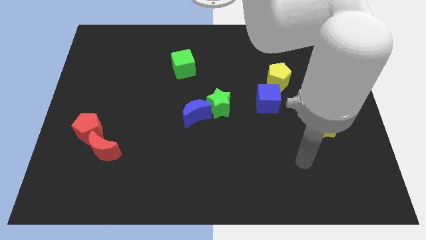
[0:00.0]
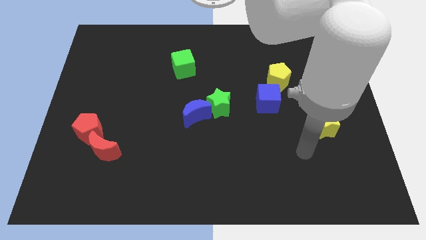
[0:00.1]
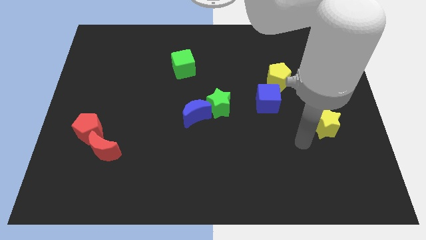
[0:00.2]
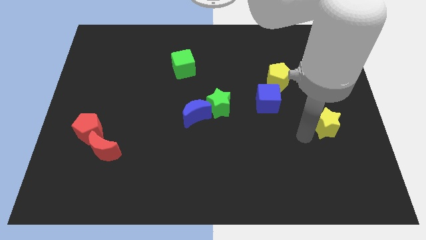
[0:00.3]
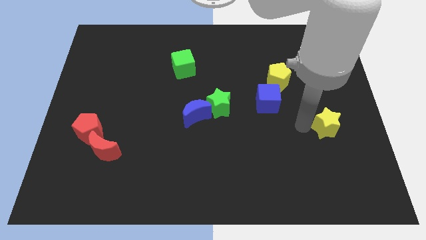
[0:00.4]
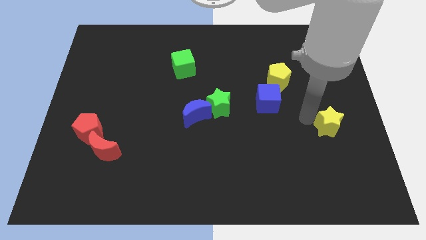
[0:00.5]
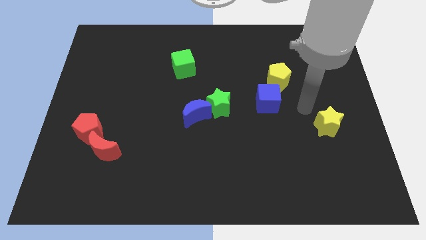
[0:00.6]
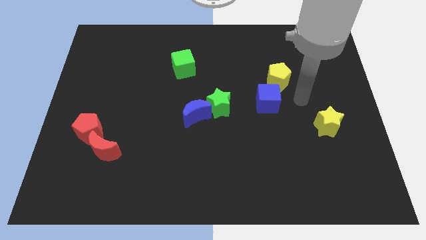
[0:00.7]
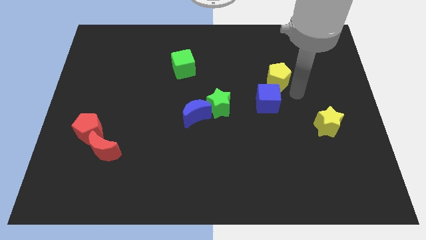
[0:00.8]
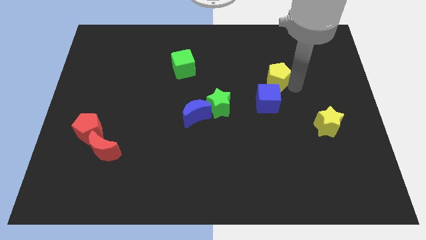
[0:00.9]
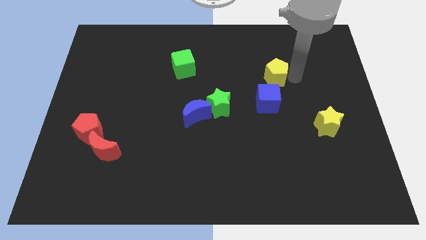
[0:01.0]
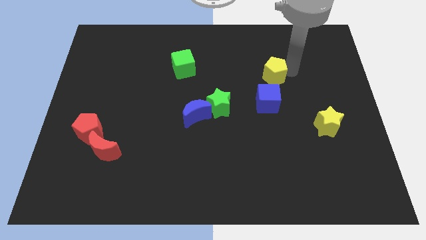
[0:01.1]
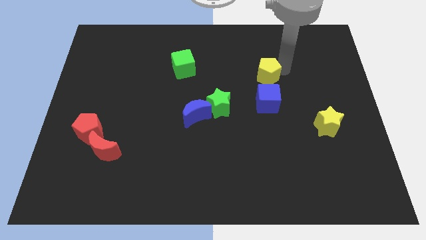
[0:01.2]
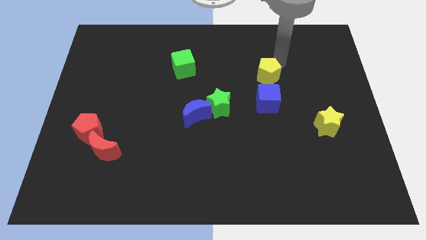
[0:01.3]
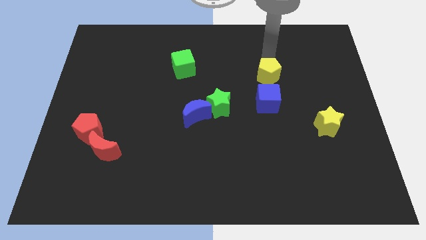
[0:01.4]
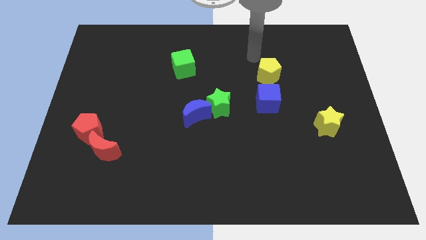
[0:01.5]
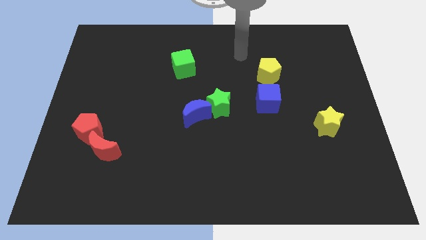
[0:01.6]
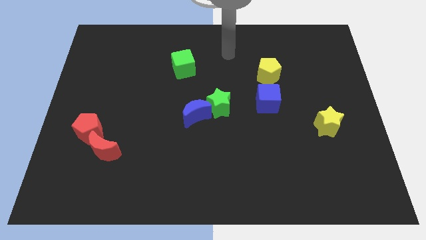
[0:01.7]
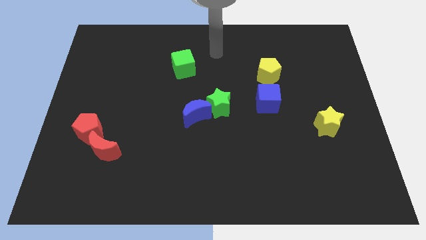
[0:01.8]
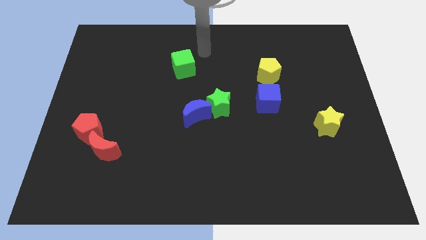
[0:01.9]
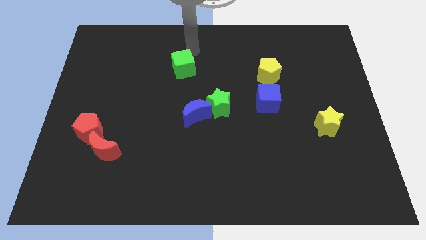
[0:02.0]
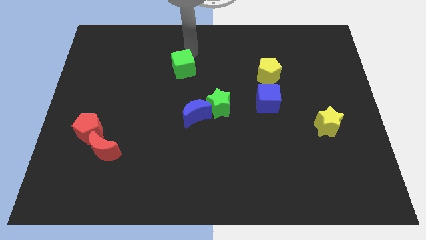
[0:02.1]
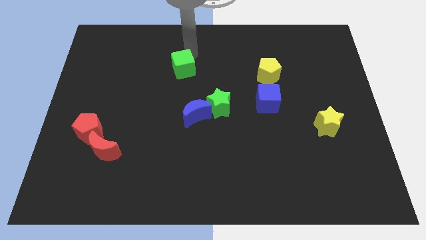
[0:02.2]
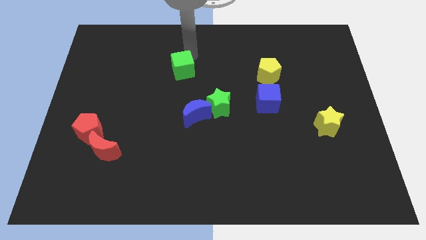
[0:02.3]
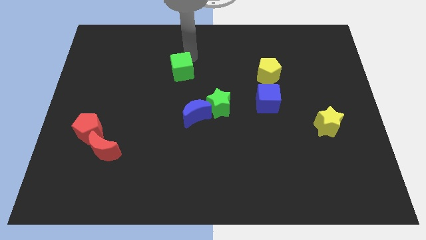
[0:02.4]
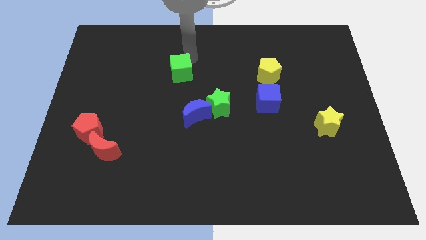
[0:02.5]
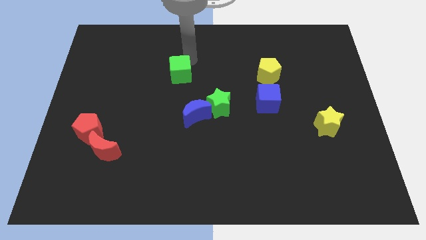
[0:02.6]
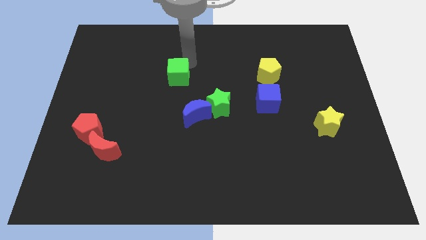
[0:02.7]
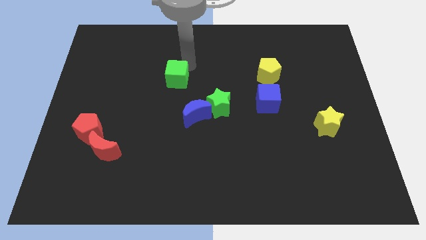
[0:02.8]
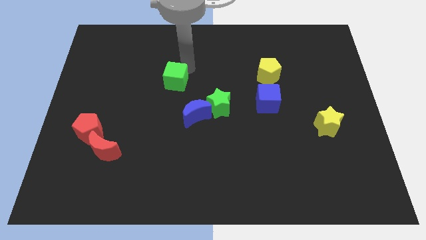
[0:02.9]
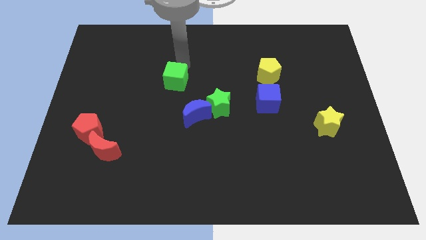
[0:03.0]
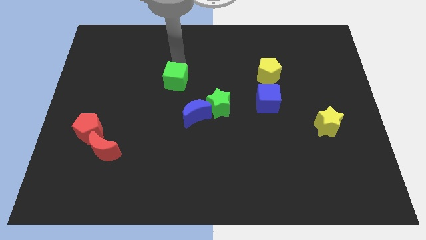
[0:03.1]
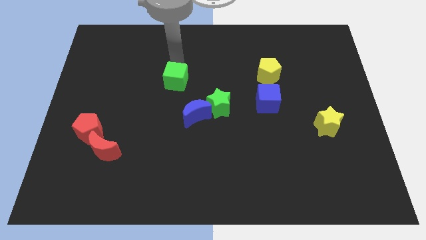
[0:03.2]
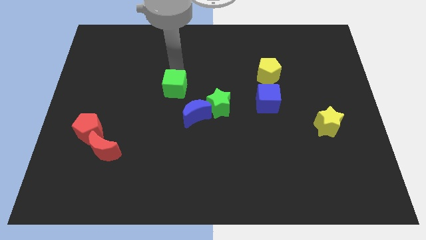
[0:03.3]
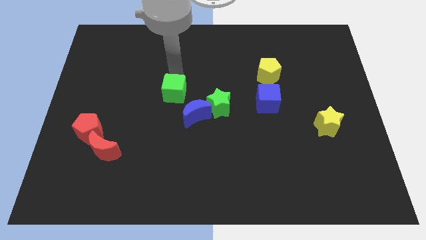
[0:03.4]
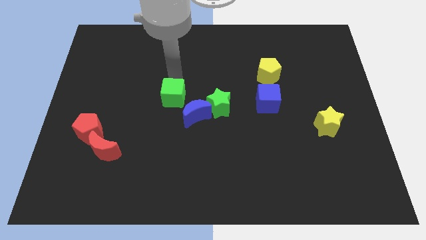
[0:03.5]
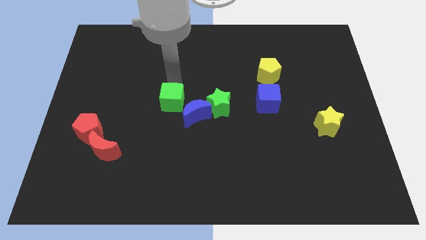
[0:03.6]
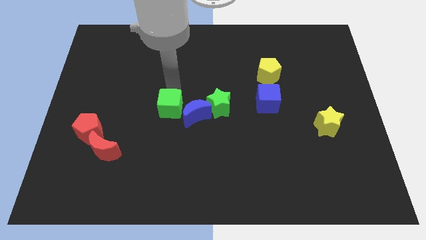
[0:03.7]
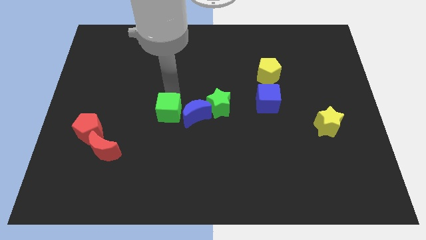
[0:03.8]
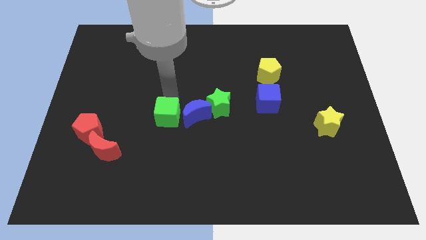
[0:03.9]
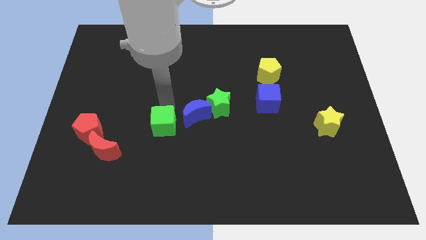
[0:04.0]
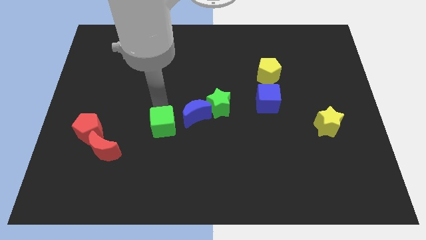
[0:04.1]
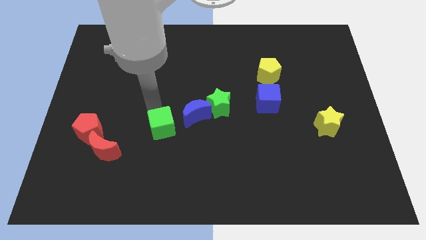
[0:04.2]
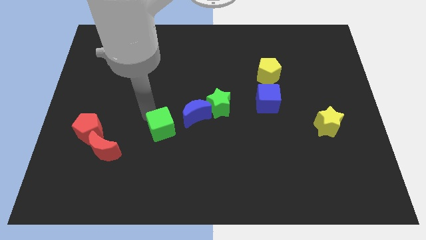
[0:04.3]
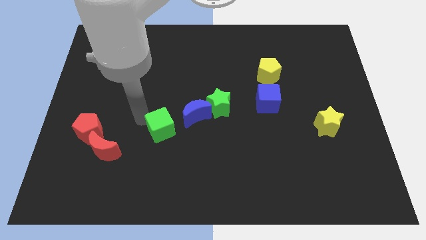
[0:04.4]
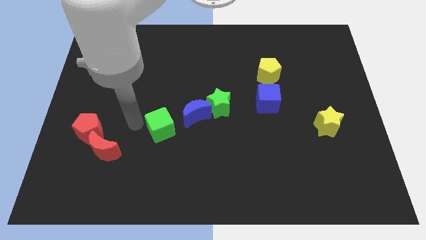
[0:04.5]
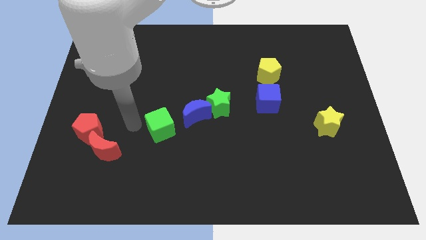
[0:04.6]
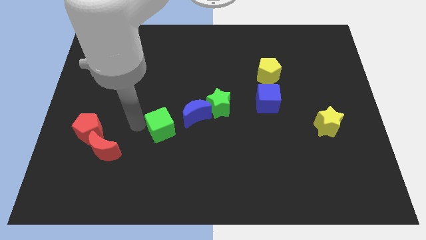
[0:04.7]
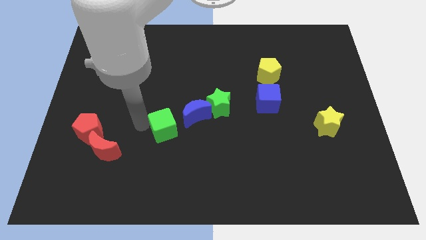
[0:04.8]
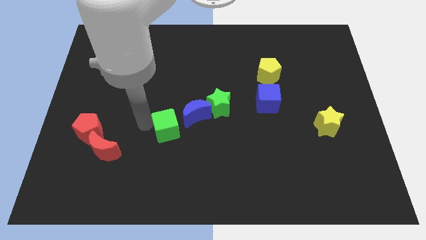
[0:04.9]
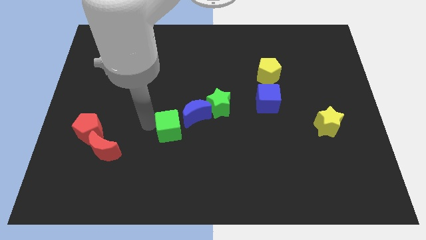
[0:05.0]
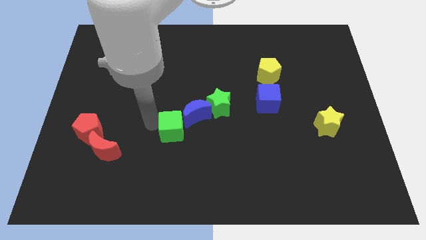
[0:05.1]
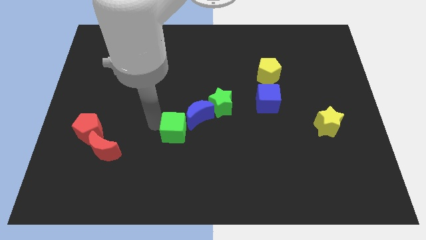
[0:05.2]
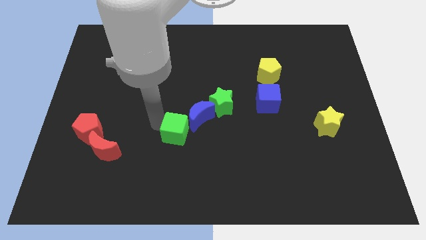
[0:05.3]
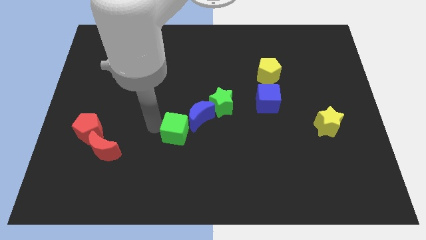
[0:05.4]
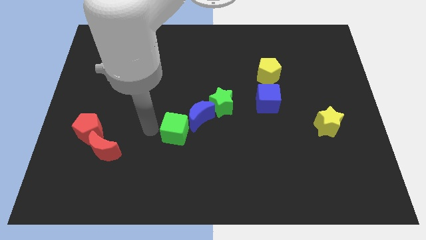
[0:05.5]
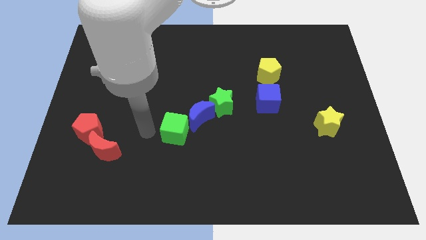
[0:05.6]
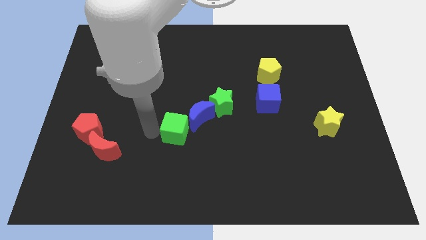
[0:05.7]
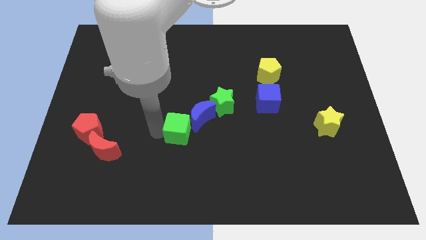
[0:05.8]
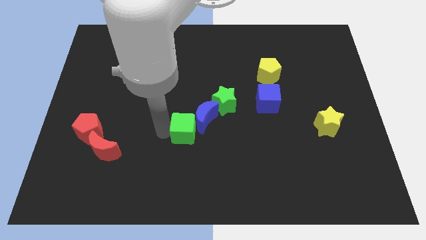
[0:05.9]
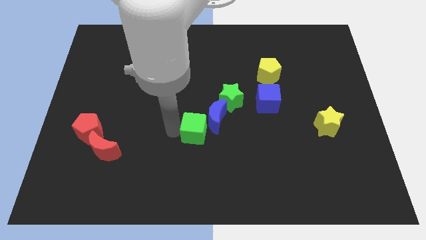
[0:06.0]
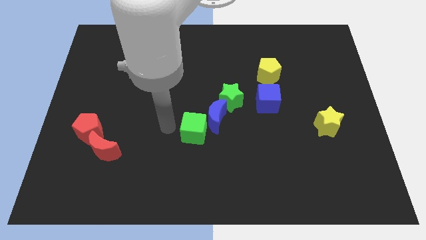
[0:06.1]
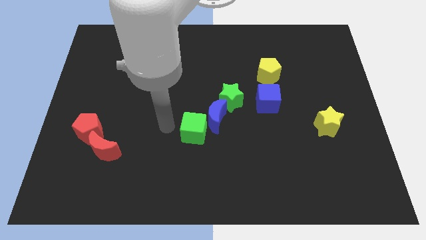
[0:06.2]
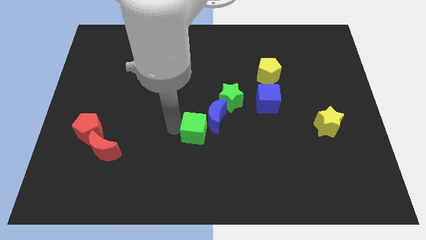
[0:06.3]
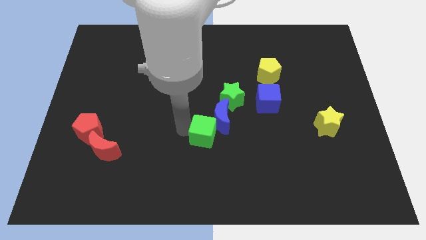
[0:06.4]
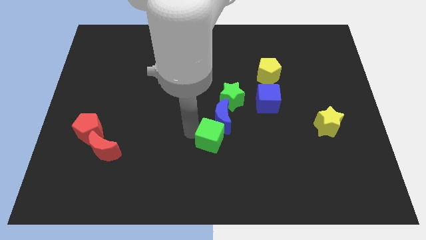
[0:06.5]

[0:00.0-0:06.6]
move the green cube to the bottom side of the green star

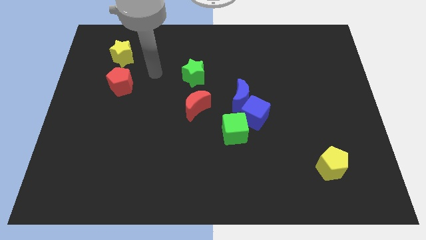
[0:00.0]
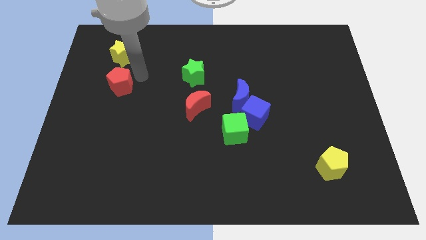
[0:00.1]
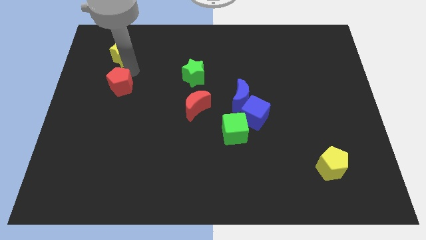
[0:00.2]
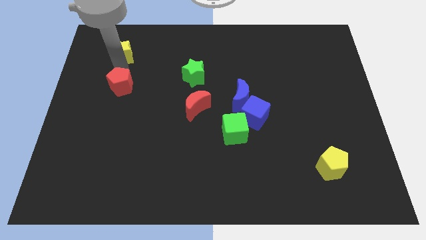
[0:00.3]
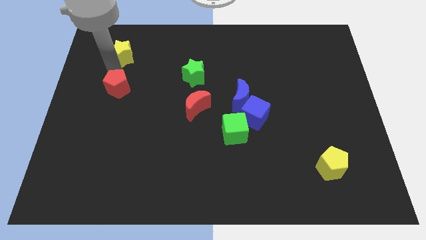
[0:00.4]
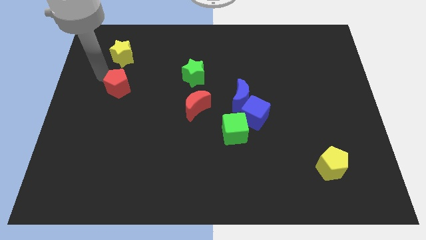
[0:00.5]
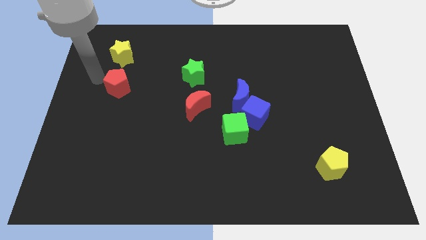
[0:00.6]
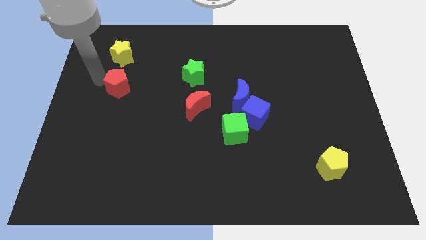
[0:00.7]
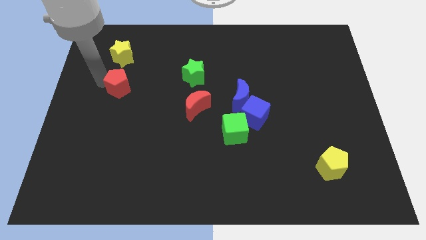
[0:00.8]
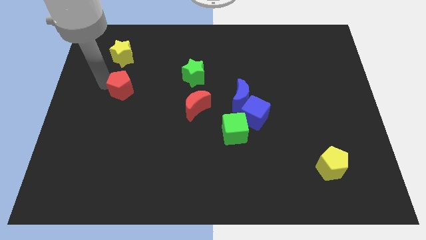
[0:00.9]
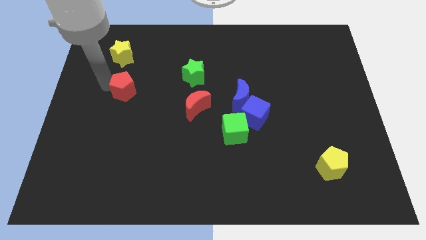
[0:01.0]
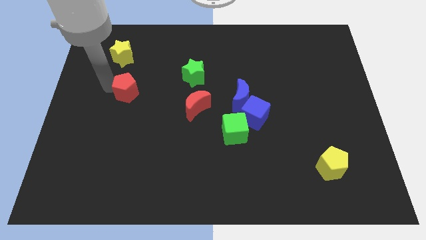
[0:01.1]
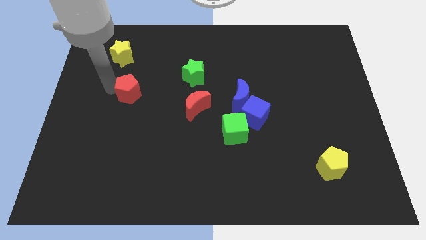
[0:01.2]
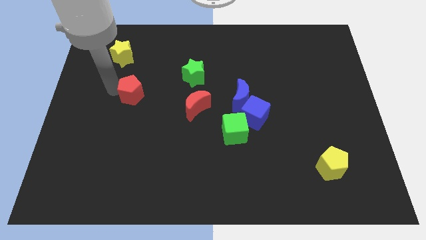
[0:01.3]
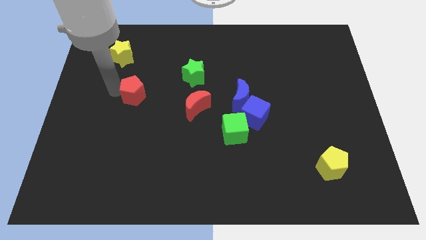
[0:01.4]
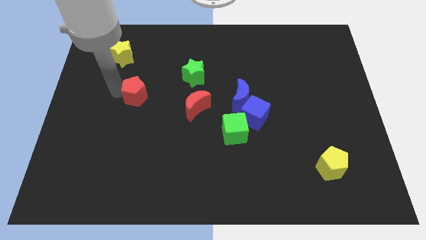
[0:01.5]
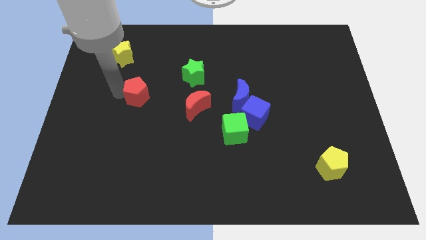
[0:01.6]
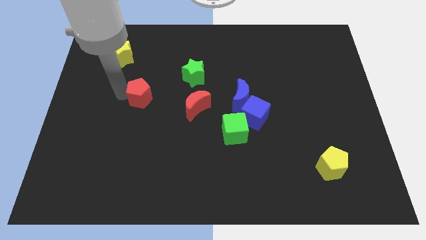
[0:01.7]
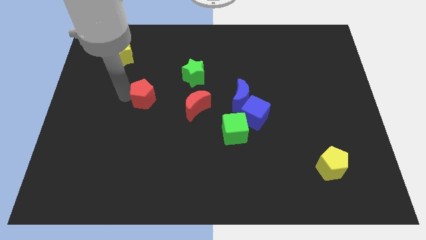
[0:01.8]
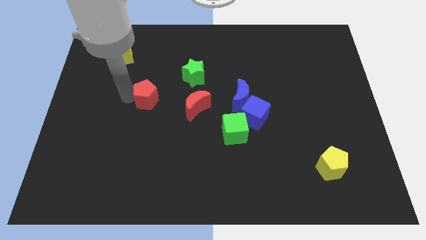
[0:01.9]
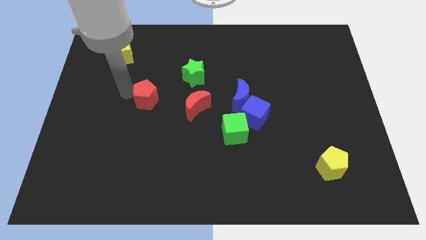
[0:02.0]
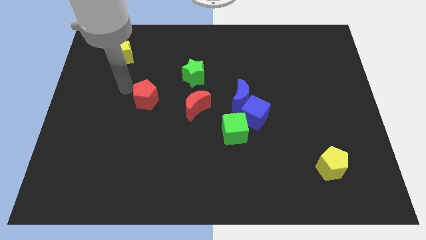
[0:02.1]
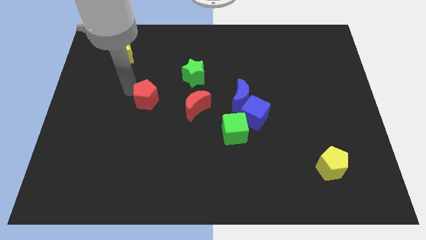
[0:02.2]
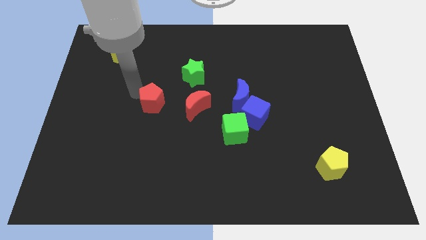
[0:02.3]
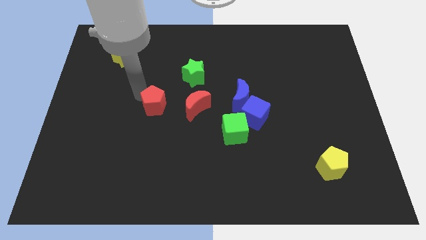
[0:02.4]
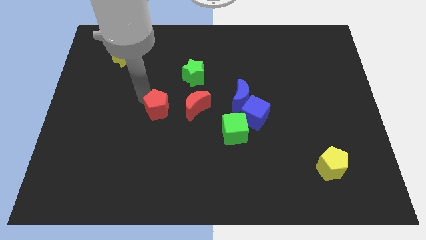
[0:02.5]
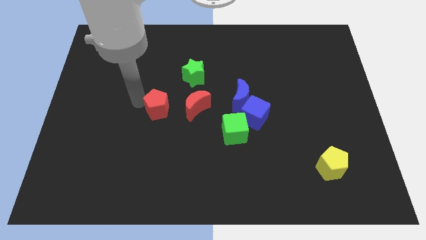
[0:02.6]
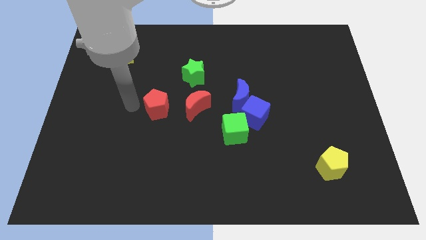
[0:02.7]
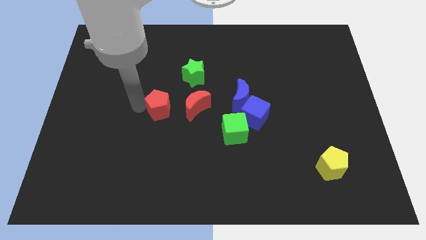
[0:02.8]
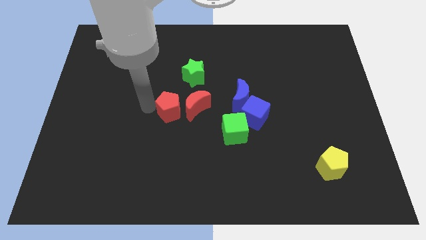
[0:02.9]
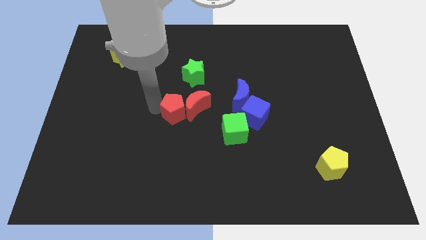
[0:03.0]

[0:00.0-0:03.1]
push the red pentagon to the bottom of the green star
